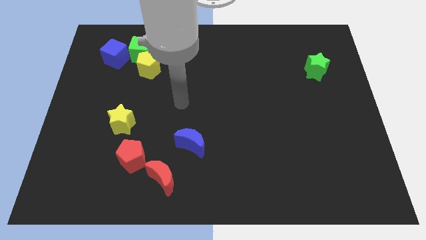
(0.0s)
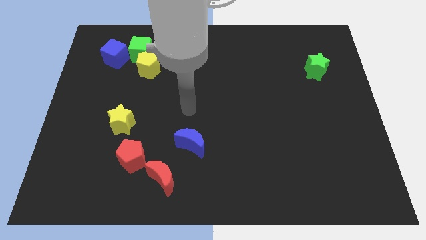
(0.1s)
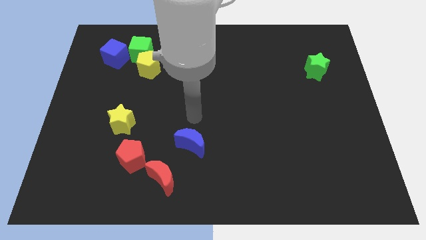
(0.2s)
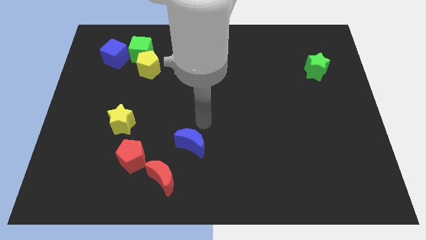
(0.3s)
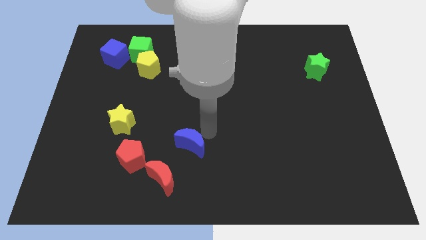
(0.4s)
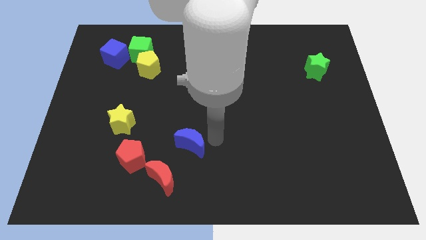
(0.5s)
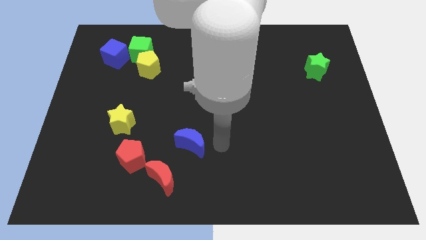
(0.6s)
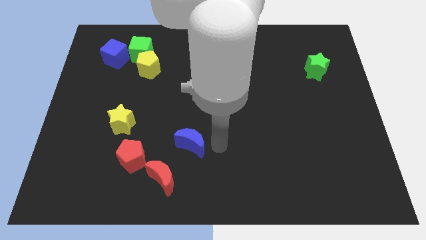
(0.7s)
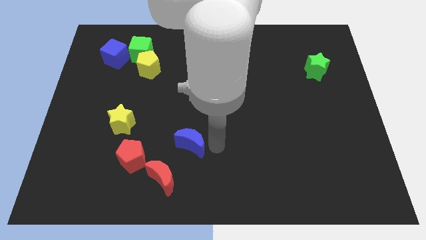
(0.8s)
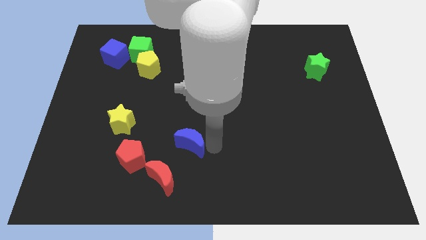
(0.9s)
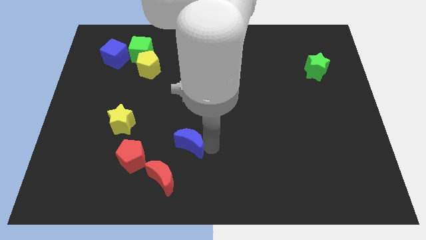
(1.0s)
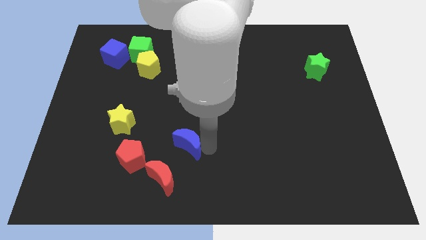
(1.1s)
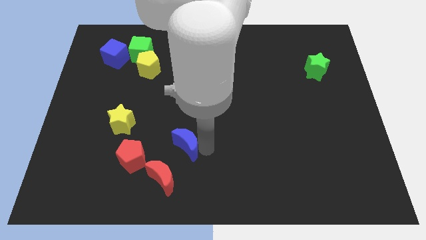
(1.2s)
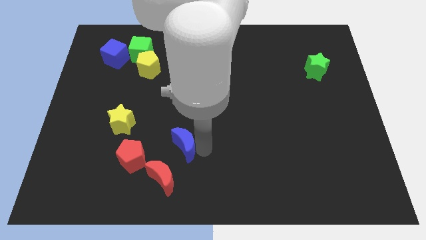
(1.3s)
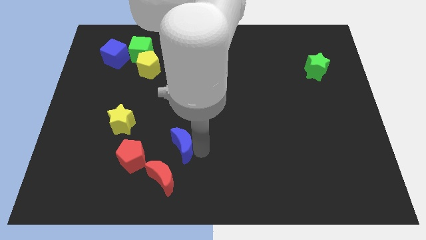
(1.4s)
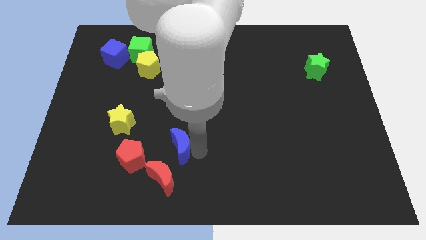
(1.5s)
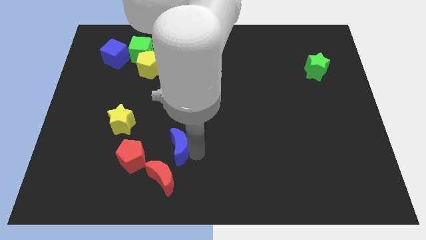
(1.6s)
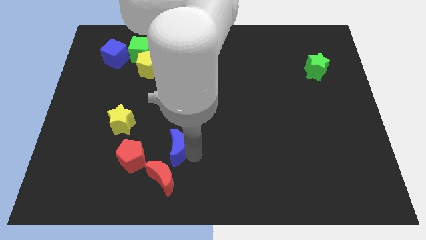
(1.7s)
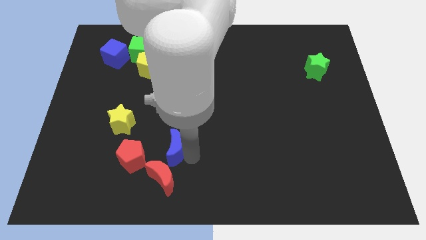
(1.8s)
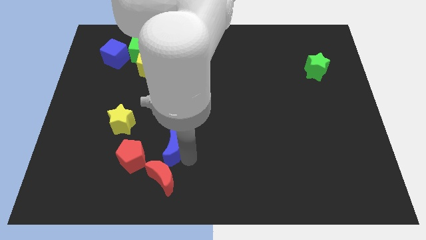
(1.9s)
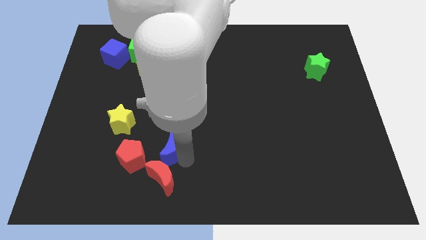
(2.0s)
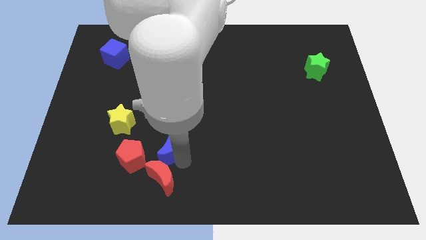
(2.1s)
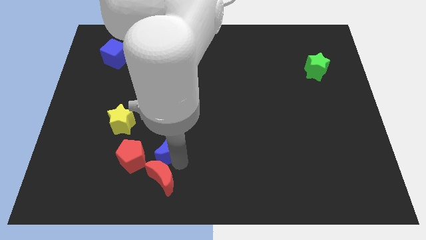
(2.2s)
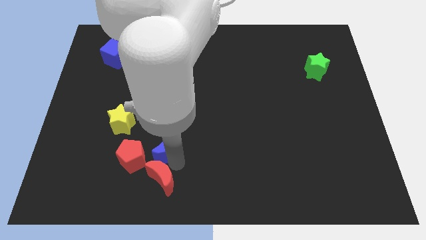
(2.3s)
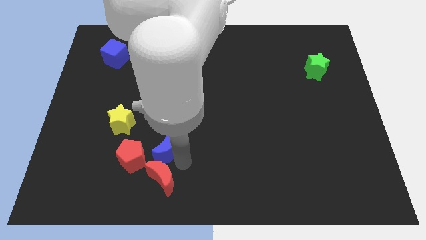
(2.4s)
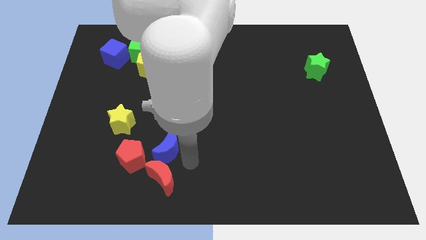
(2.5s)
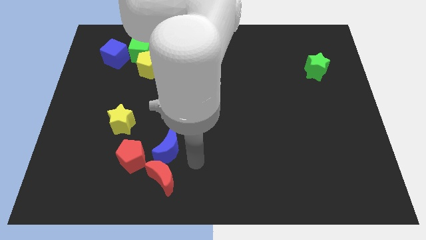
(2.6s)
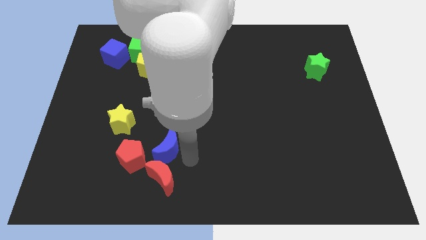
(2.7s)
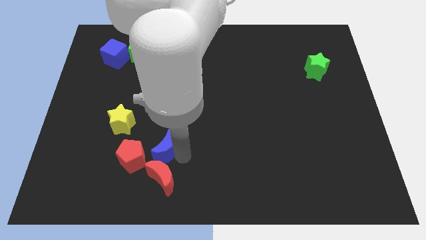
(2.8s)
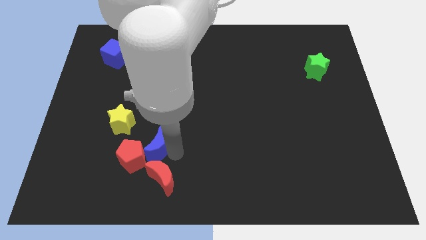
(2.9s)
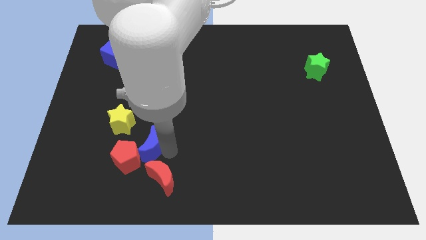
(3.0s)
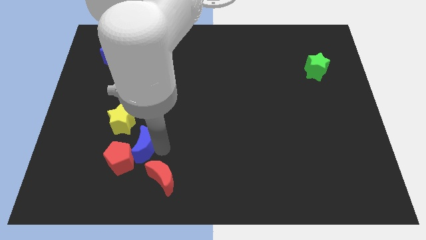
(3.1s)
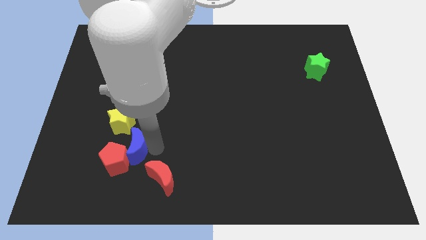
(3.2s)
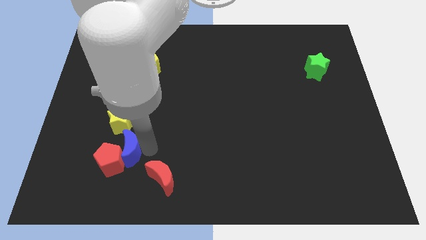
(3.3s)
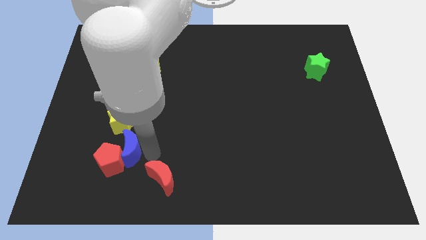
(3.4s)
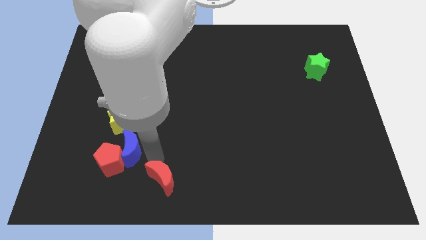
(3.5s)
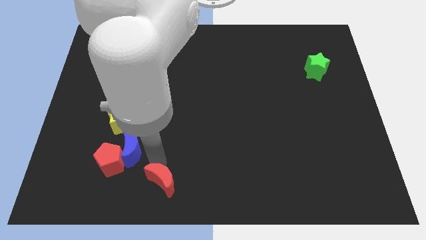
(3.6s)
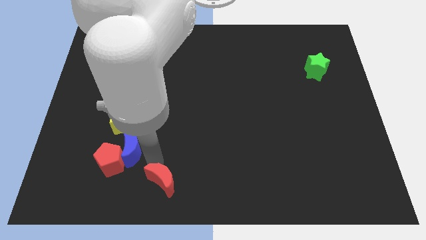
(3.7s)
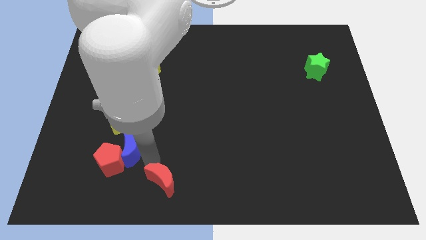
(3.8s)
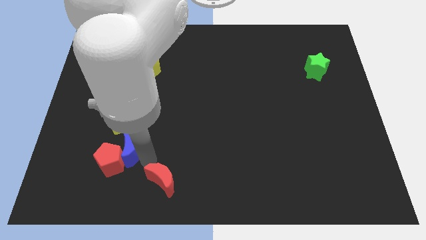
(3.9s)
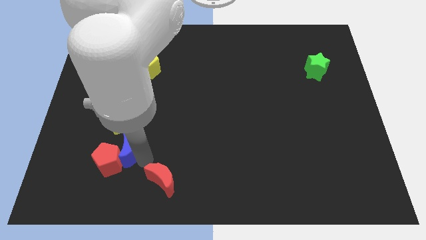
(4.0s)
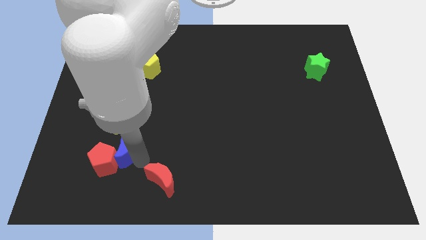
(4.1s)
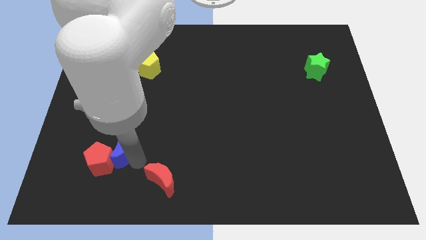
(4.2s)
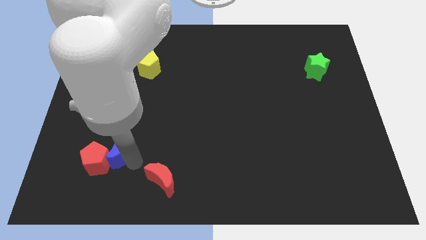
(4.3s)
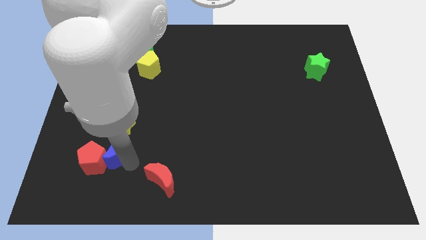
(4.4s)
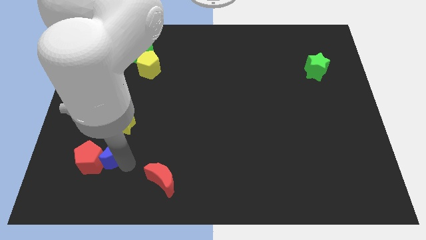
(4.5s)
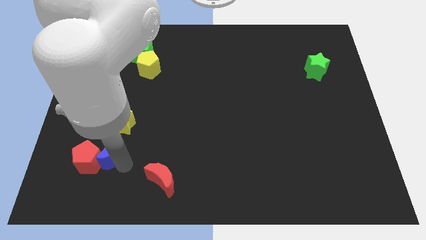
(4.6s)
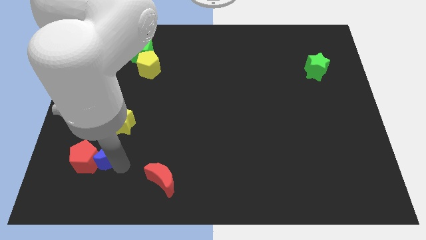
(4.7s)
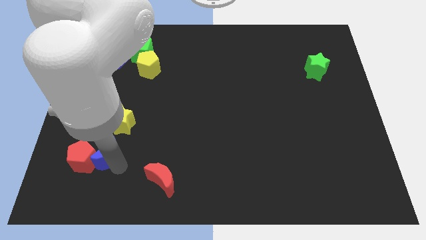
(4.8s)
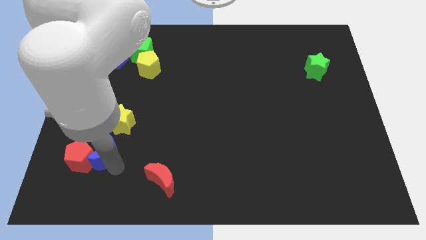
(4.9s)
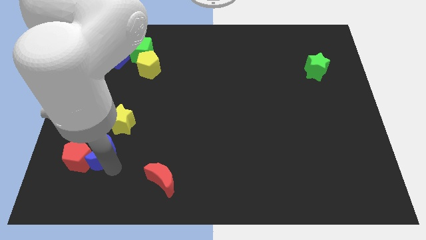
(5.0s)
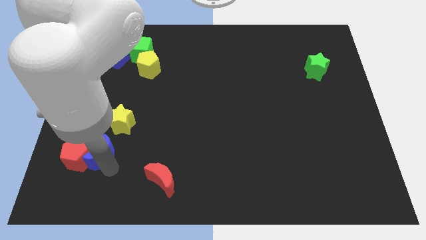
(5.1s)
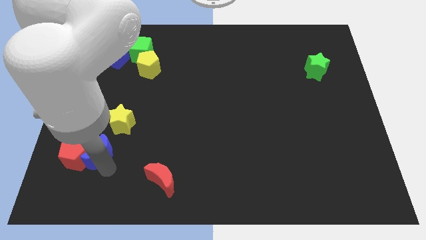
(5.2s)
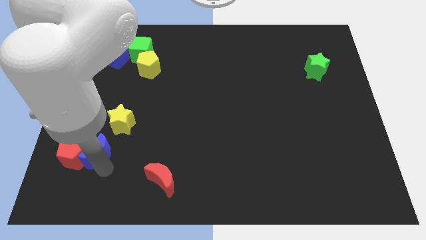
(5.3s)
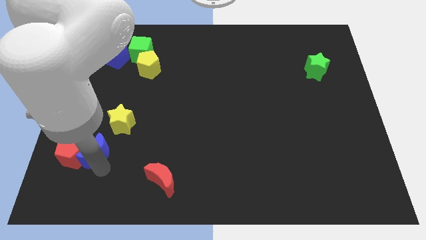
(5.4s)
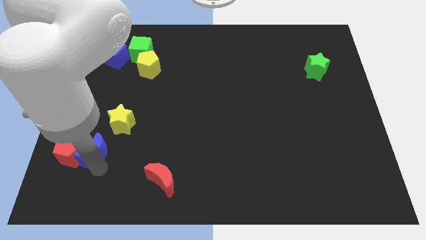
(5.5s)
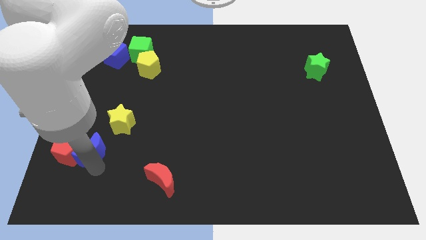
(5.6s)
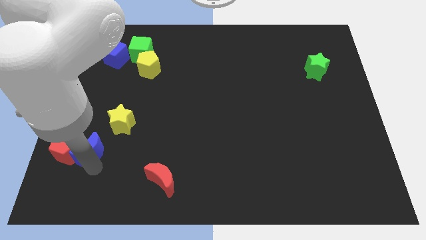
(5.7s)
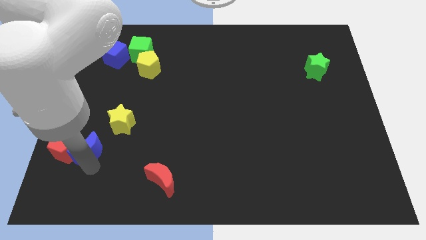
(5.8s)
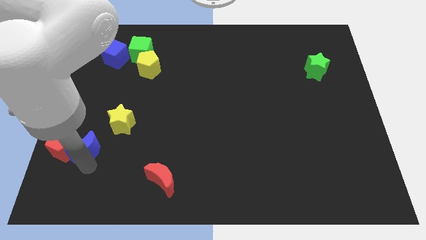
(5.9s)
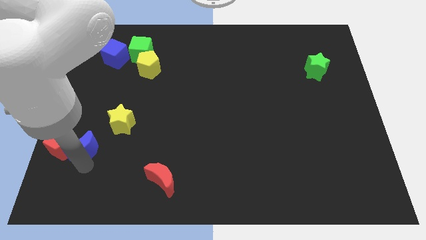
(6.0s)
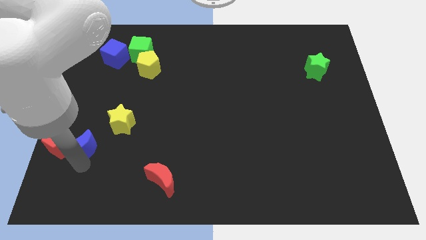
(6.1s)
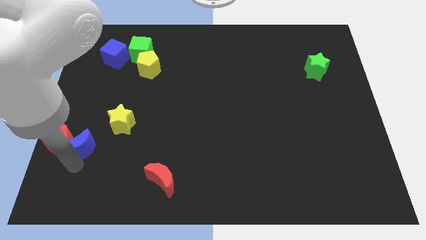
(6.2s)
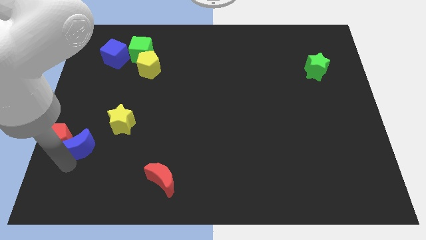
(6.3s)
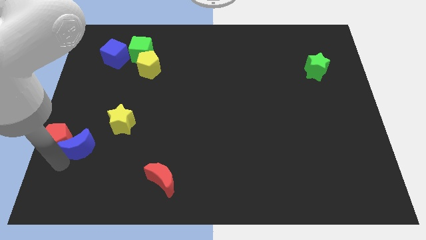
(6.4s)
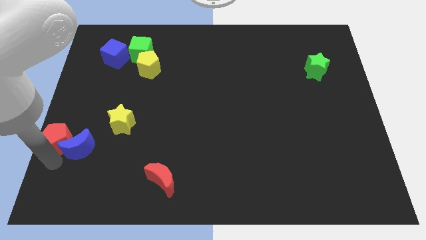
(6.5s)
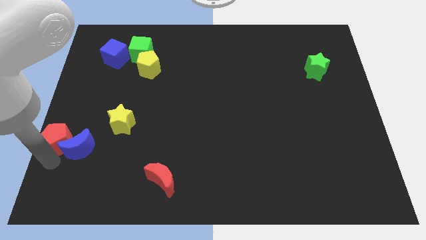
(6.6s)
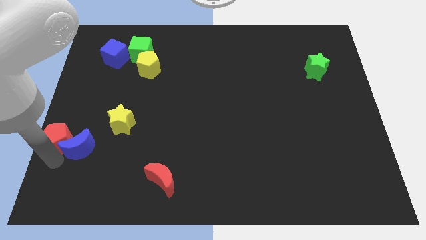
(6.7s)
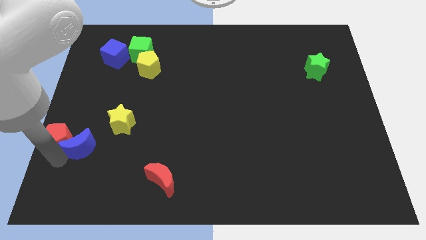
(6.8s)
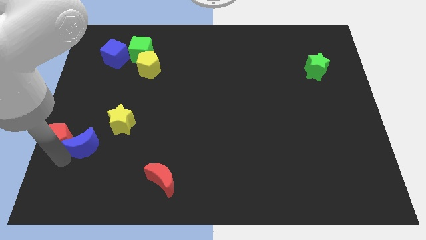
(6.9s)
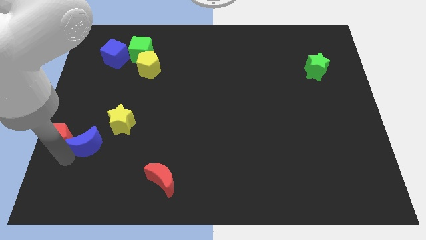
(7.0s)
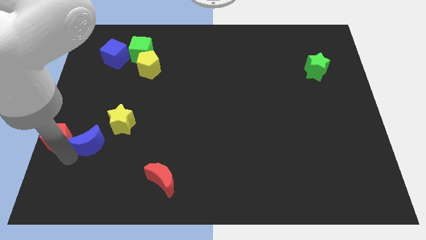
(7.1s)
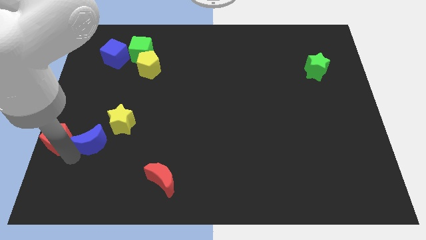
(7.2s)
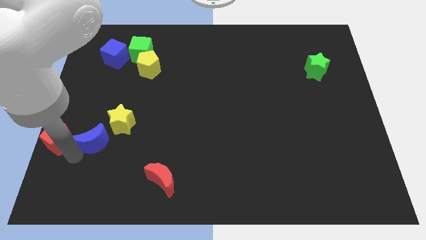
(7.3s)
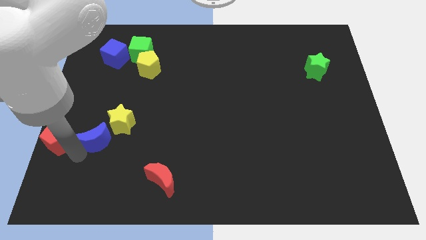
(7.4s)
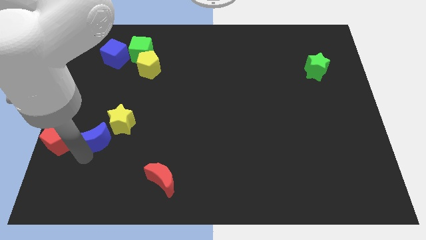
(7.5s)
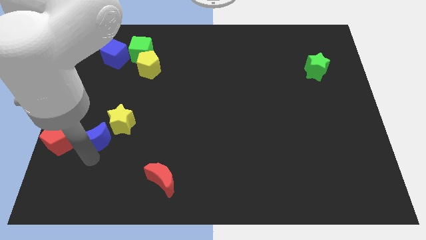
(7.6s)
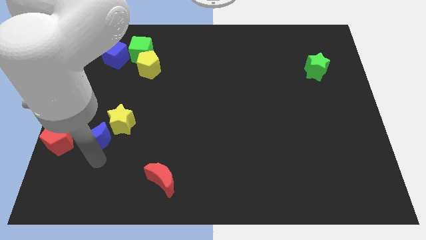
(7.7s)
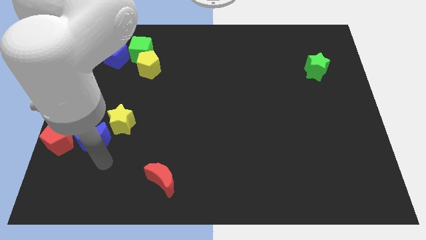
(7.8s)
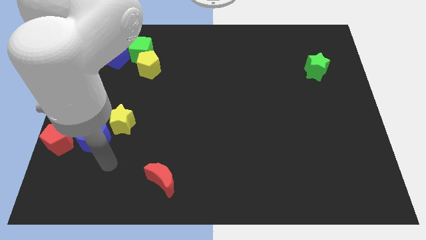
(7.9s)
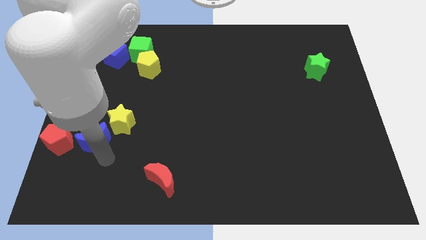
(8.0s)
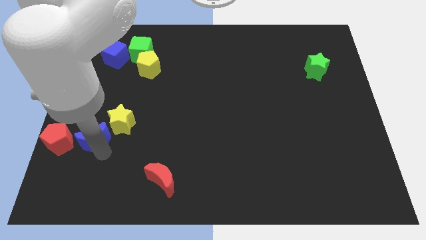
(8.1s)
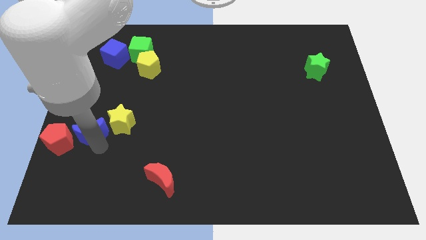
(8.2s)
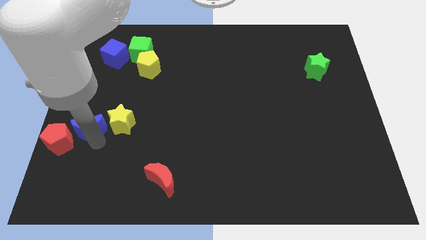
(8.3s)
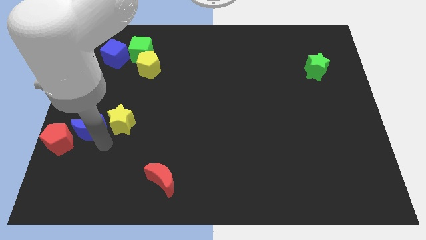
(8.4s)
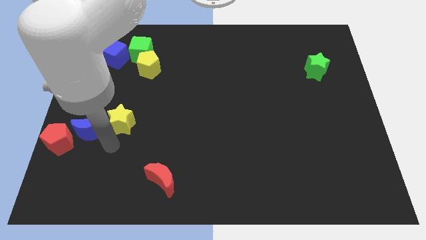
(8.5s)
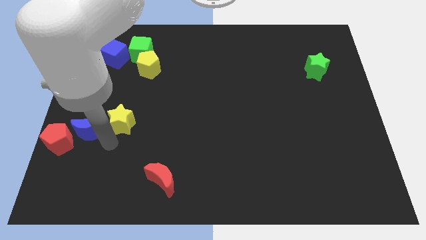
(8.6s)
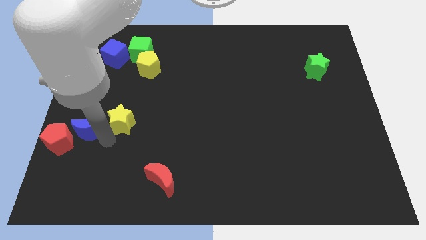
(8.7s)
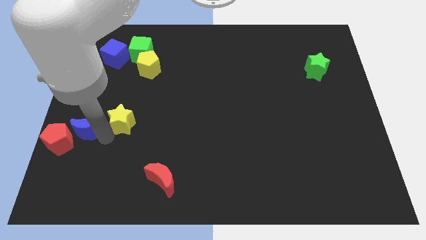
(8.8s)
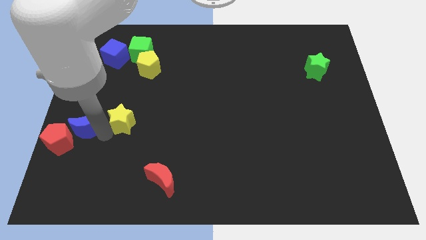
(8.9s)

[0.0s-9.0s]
move the blue moon to the left side
